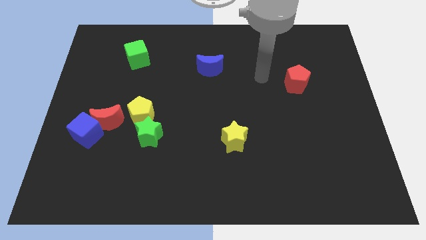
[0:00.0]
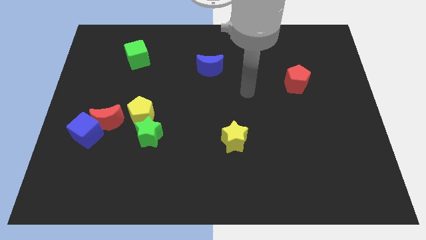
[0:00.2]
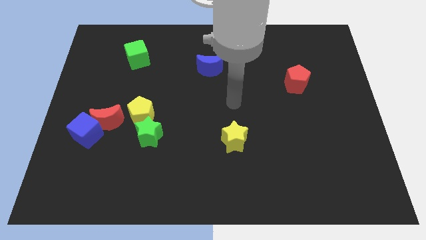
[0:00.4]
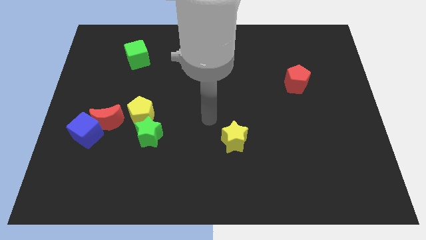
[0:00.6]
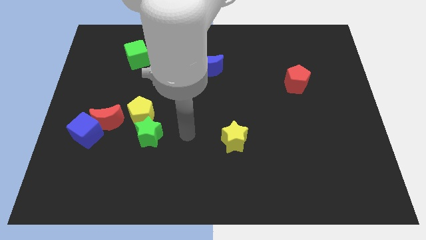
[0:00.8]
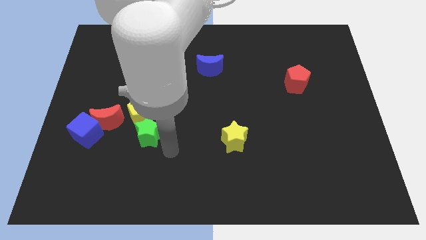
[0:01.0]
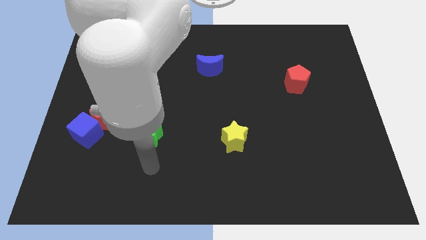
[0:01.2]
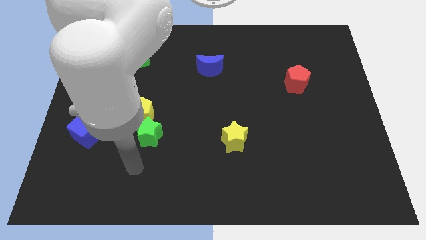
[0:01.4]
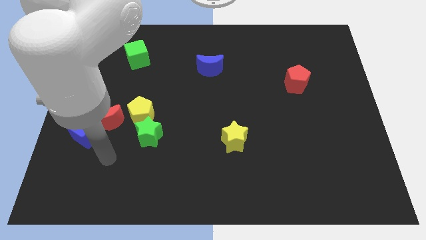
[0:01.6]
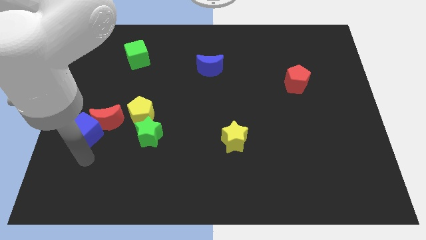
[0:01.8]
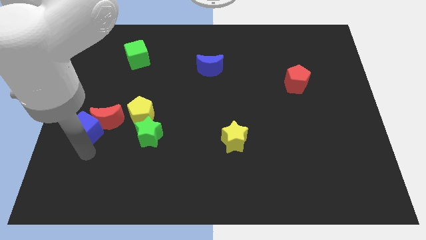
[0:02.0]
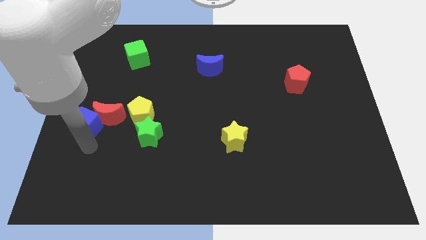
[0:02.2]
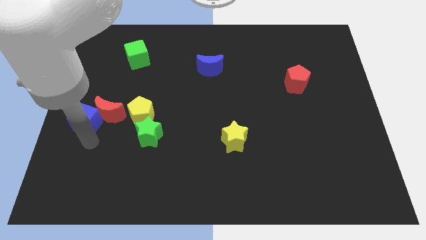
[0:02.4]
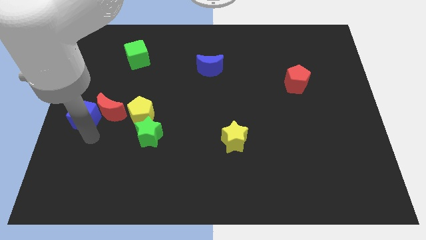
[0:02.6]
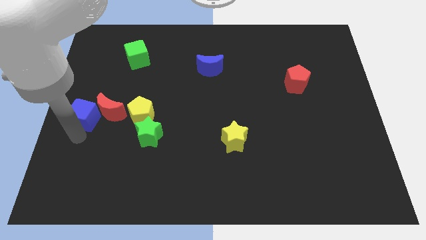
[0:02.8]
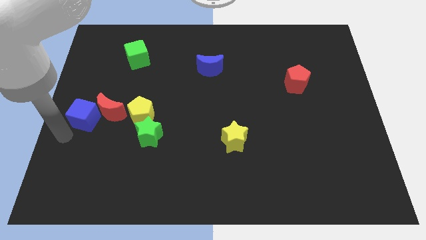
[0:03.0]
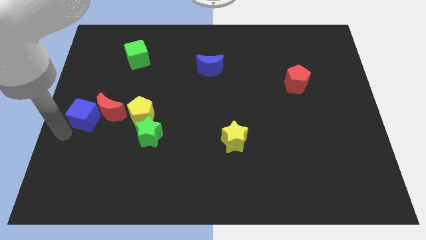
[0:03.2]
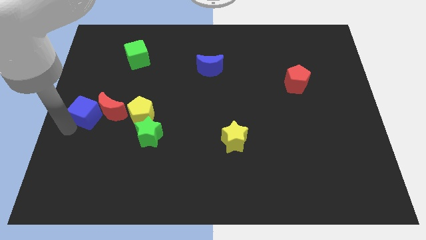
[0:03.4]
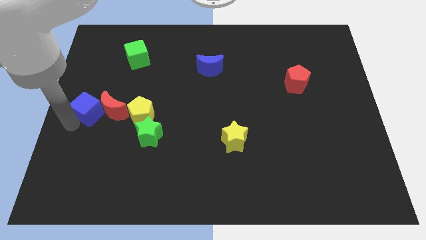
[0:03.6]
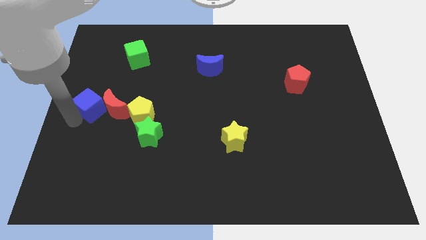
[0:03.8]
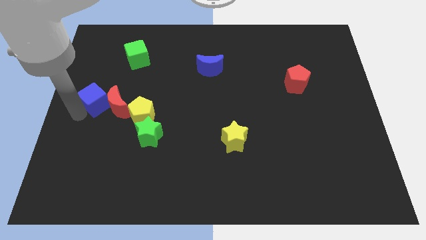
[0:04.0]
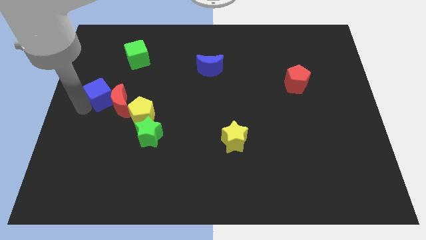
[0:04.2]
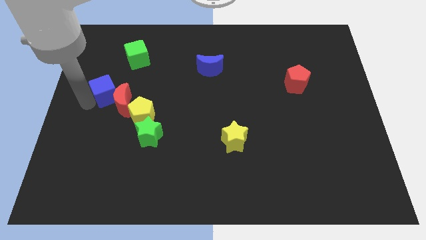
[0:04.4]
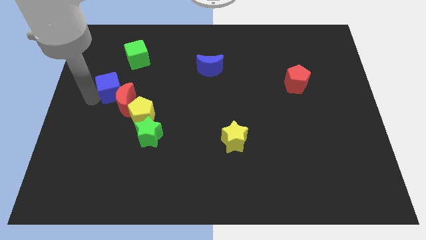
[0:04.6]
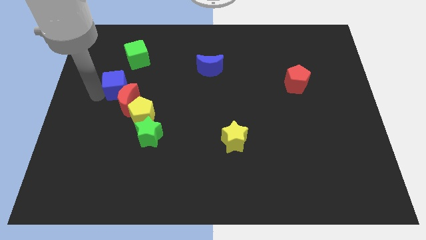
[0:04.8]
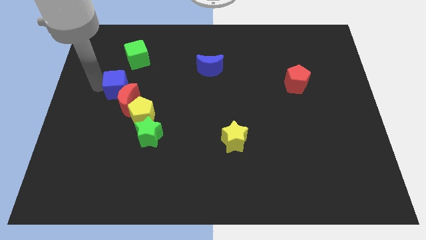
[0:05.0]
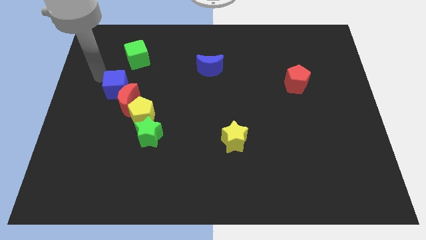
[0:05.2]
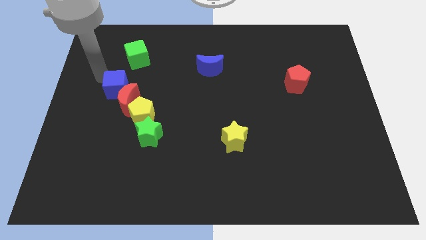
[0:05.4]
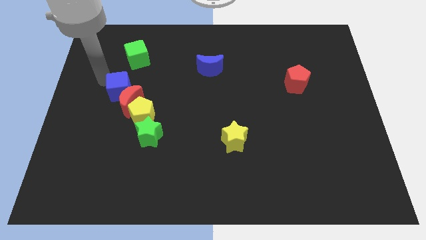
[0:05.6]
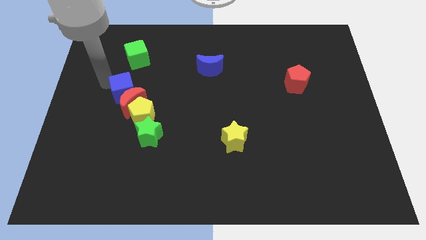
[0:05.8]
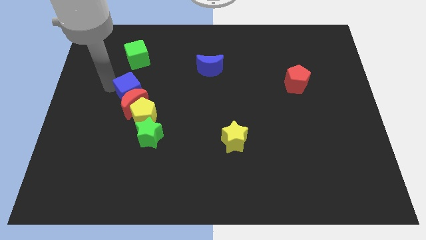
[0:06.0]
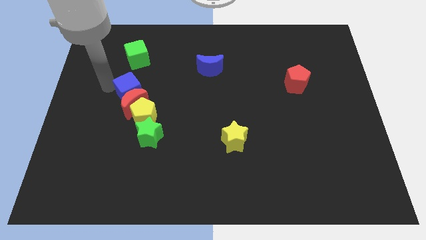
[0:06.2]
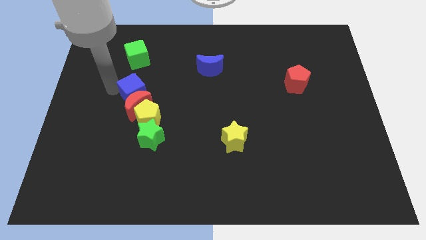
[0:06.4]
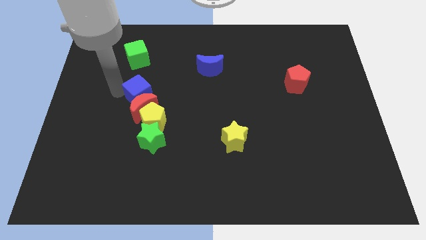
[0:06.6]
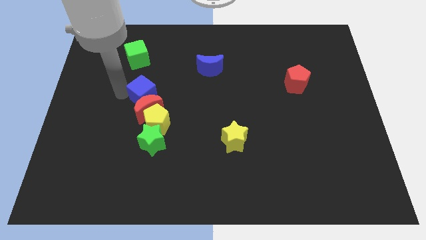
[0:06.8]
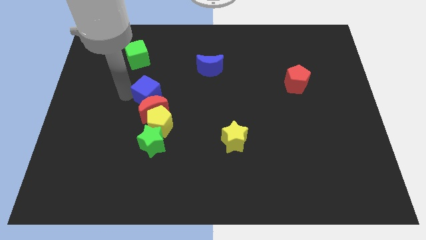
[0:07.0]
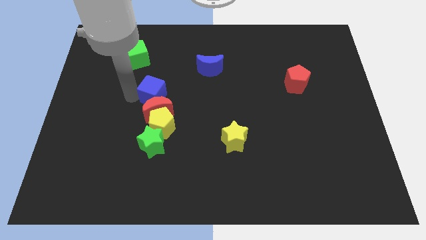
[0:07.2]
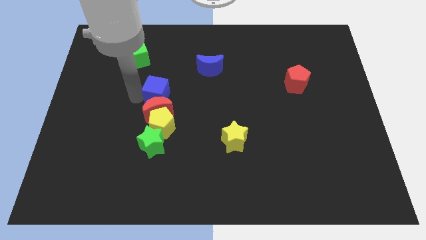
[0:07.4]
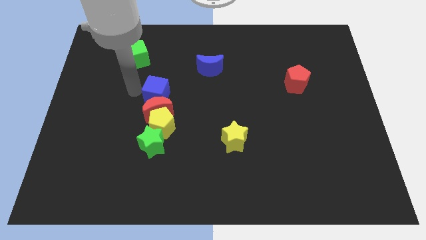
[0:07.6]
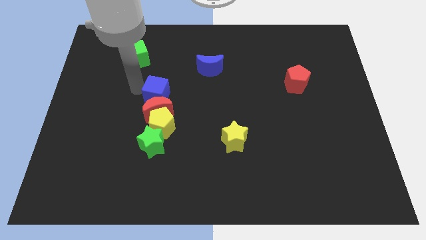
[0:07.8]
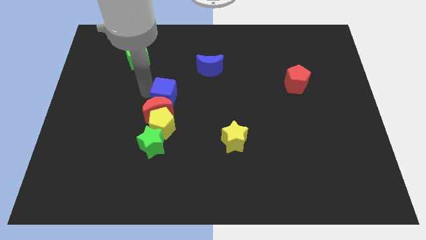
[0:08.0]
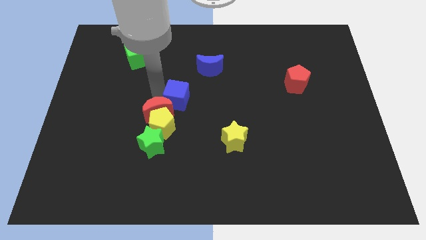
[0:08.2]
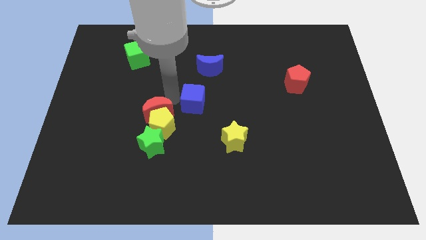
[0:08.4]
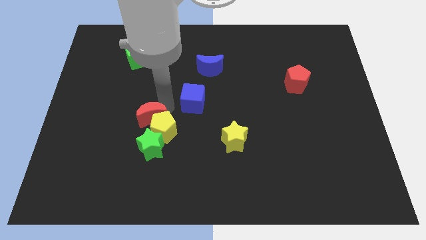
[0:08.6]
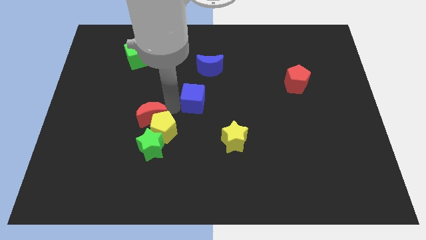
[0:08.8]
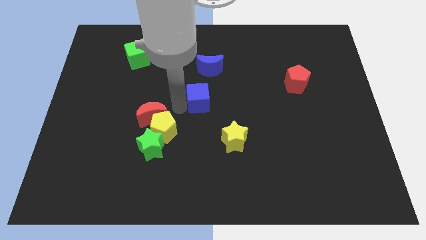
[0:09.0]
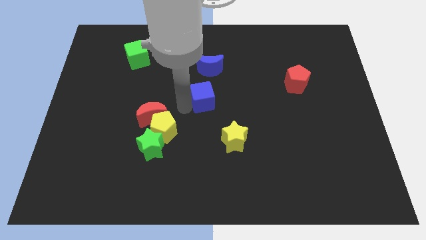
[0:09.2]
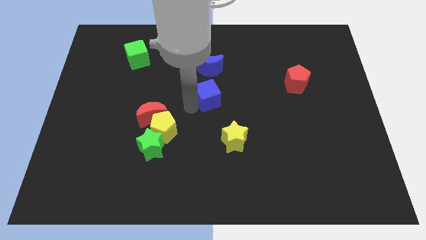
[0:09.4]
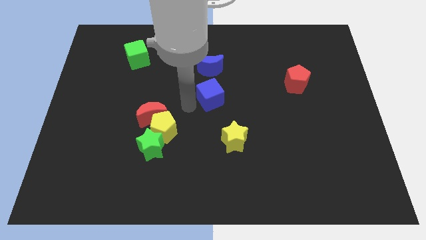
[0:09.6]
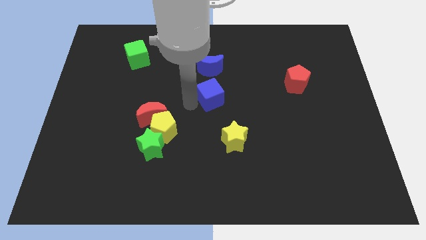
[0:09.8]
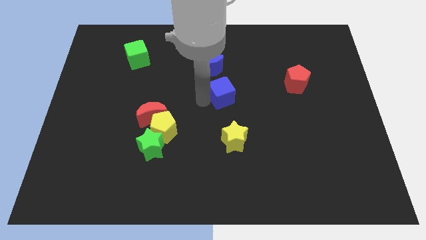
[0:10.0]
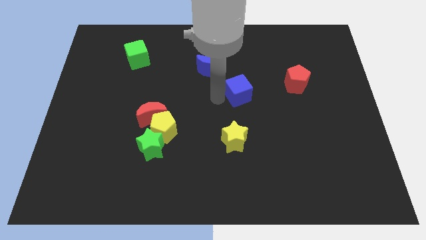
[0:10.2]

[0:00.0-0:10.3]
slide the blue cube to the left of the red pentagon

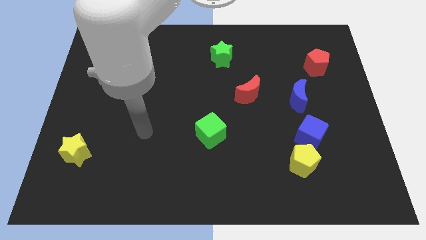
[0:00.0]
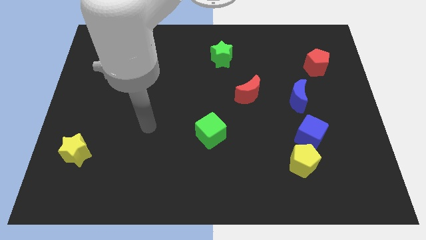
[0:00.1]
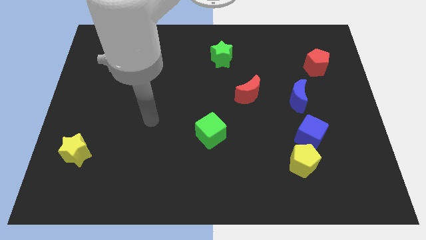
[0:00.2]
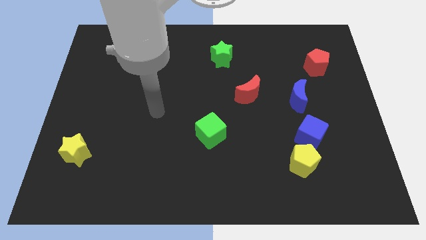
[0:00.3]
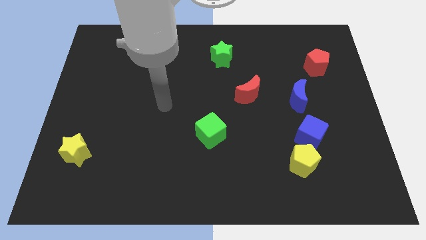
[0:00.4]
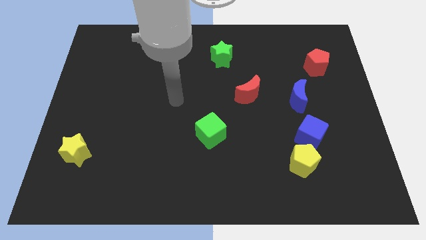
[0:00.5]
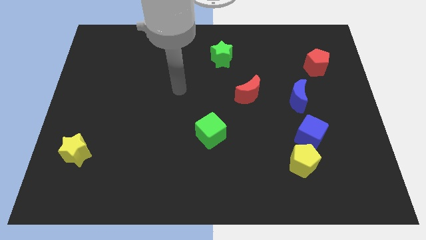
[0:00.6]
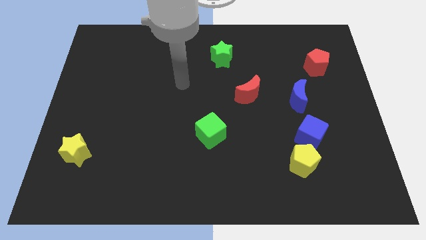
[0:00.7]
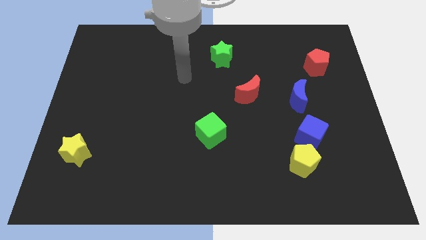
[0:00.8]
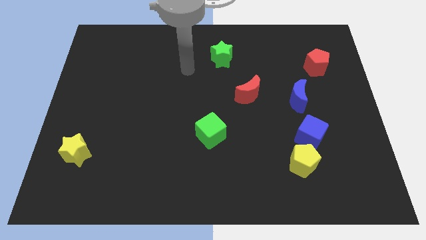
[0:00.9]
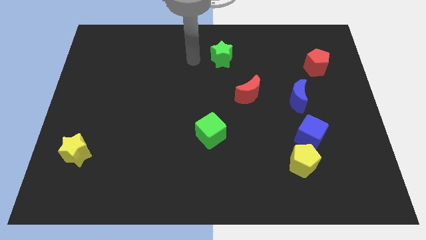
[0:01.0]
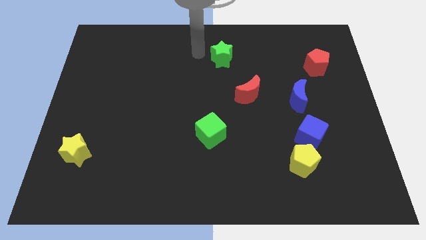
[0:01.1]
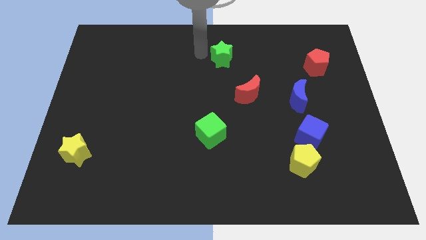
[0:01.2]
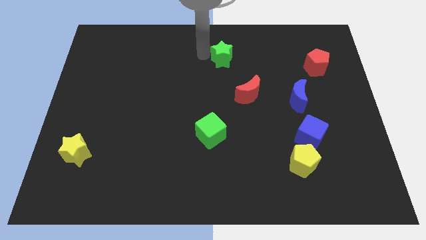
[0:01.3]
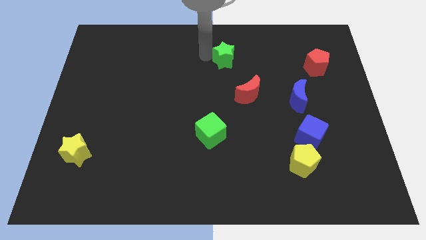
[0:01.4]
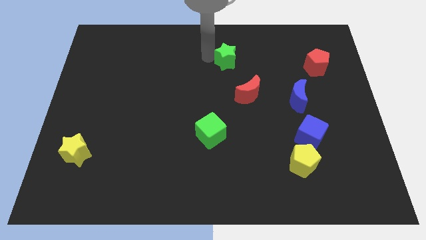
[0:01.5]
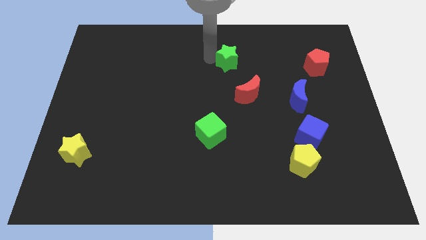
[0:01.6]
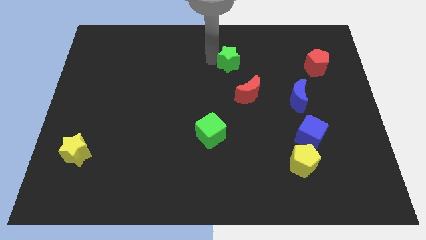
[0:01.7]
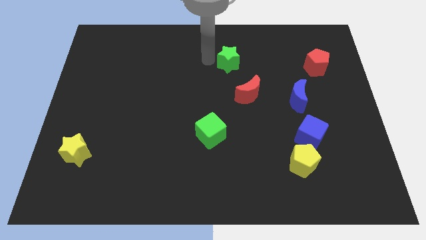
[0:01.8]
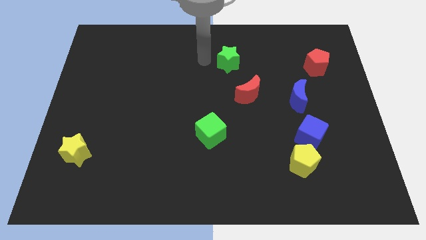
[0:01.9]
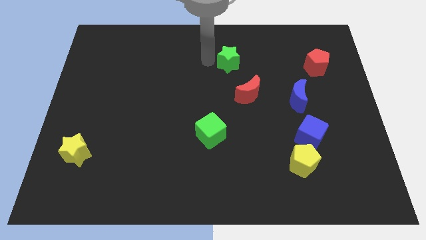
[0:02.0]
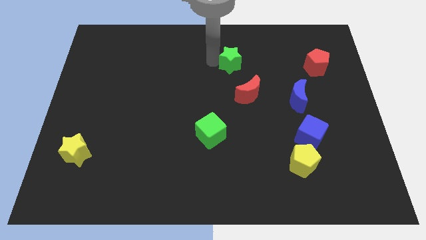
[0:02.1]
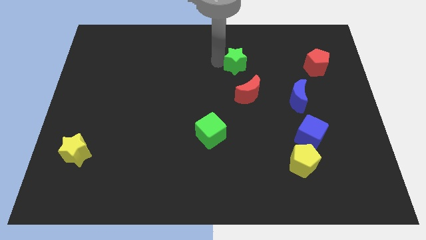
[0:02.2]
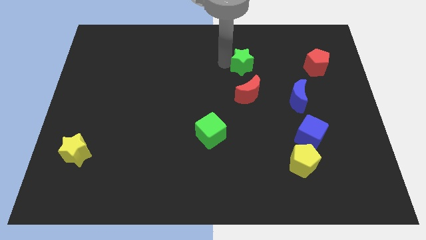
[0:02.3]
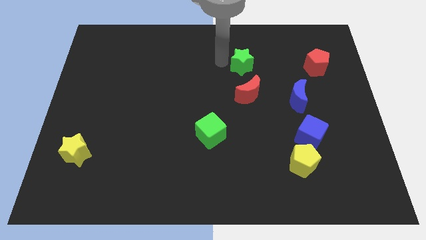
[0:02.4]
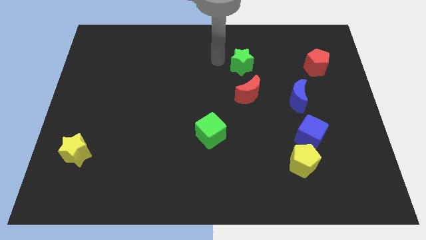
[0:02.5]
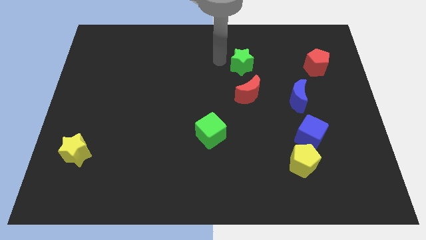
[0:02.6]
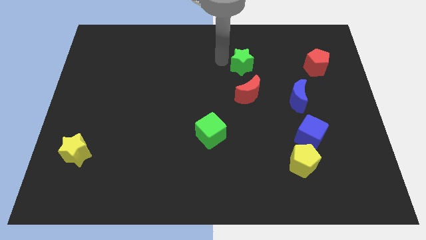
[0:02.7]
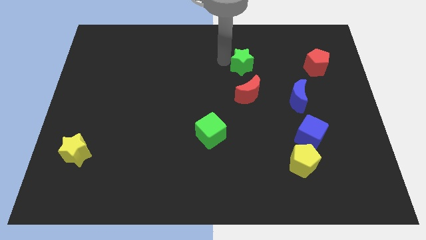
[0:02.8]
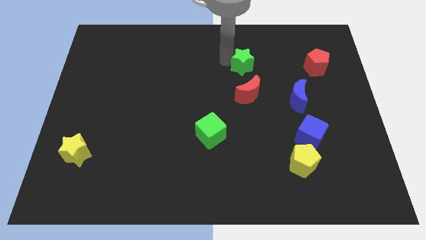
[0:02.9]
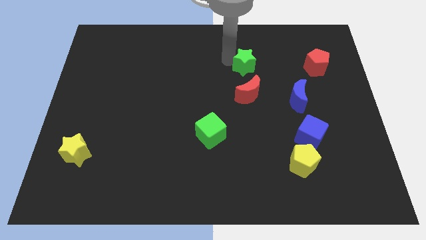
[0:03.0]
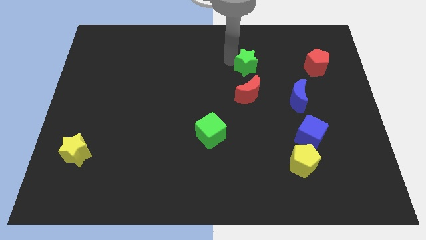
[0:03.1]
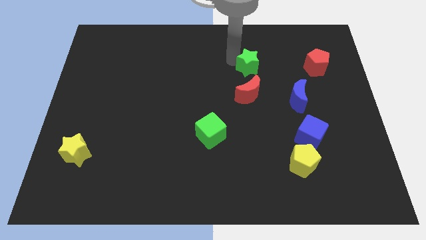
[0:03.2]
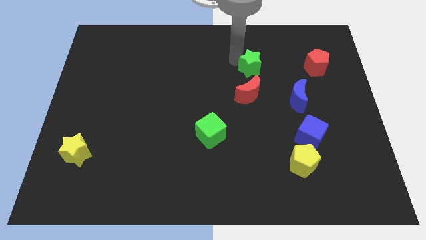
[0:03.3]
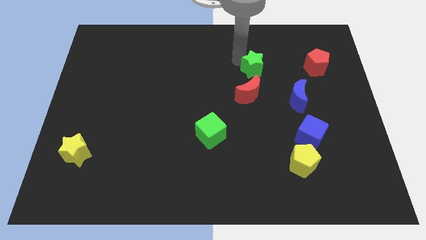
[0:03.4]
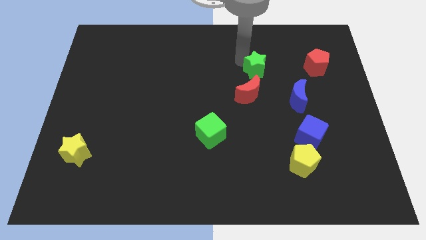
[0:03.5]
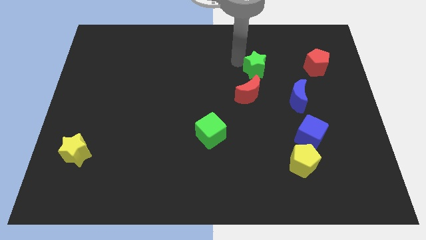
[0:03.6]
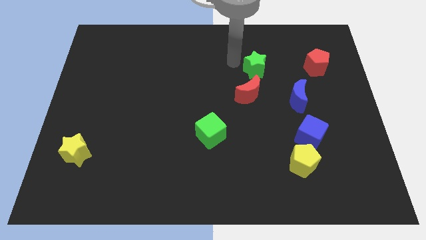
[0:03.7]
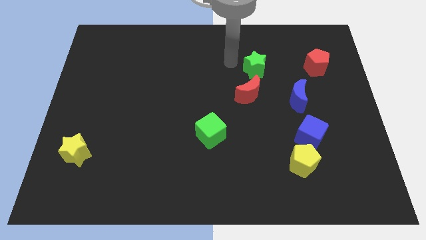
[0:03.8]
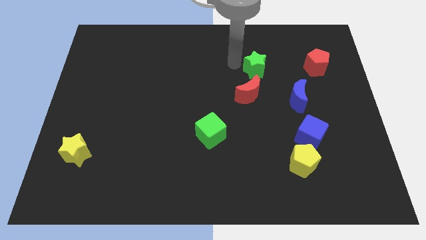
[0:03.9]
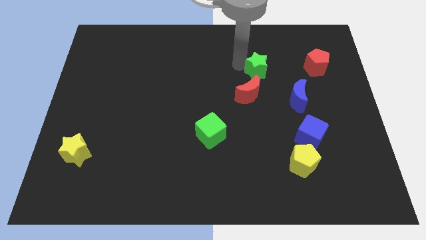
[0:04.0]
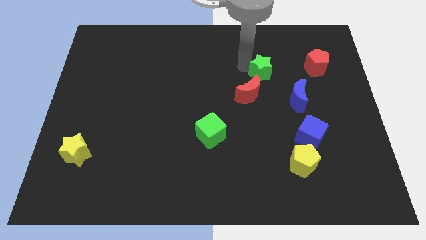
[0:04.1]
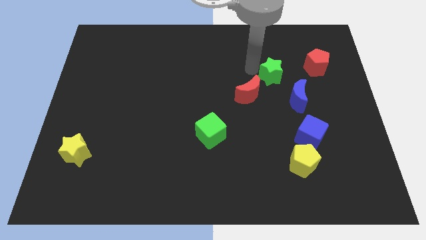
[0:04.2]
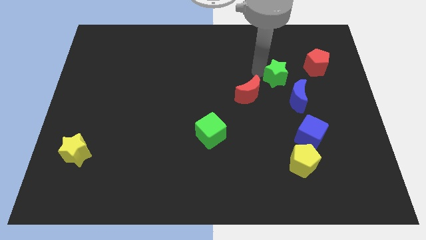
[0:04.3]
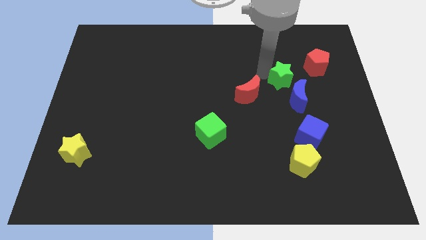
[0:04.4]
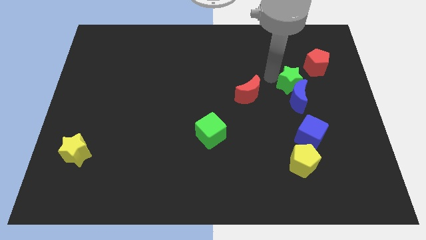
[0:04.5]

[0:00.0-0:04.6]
move the green star to the top right of the blue moon
